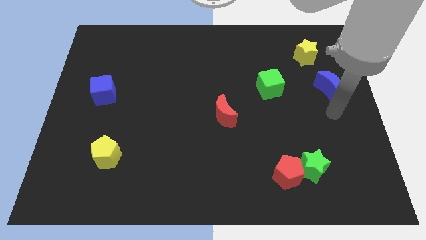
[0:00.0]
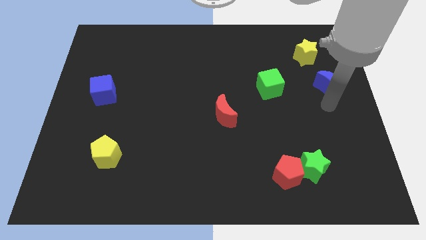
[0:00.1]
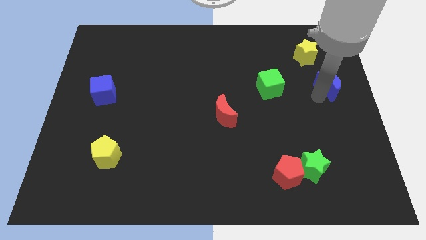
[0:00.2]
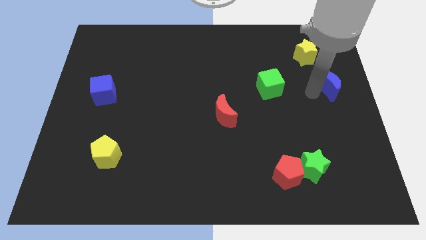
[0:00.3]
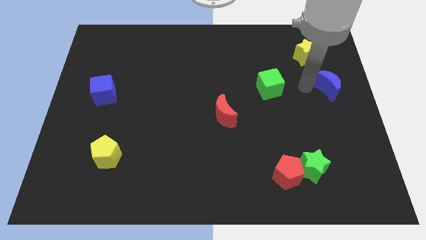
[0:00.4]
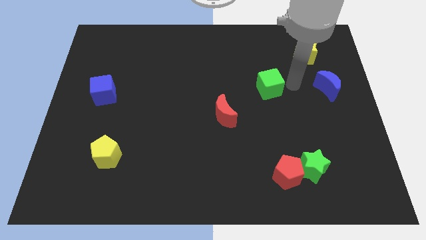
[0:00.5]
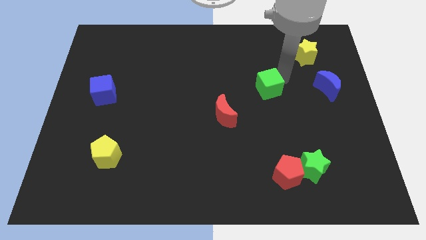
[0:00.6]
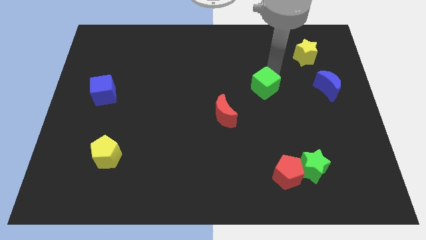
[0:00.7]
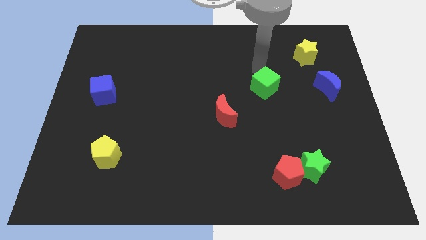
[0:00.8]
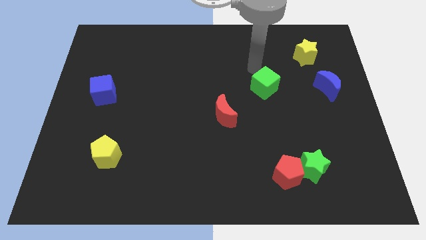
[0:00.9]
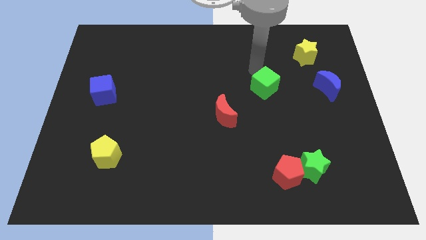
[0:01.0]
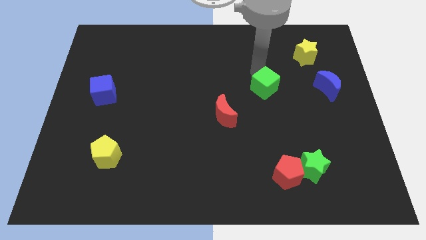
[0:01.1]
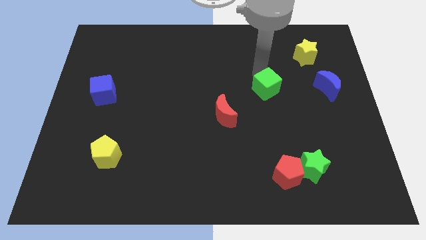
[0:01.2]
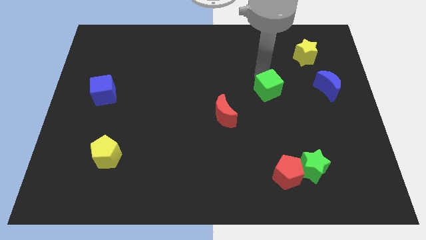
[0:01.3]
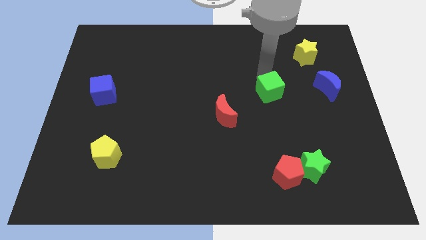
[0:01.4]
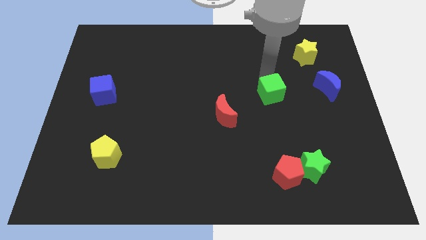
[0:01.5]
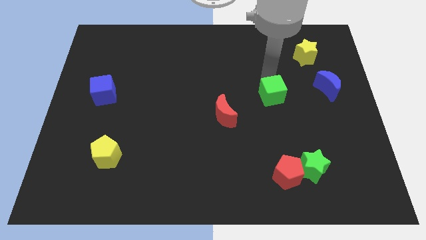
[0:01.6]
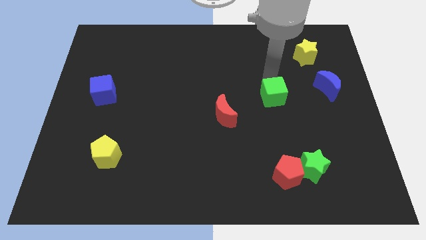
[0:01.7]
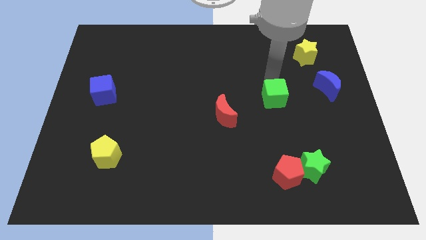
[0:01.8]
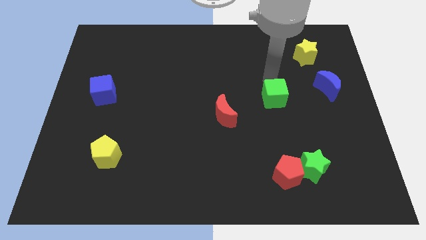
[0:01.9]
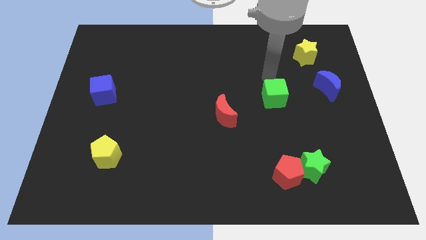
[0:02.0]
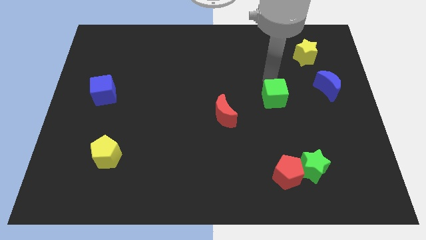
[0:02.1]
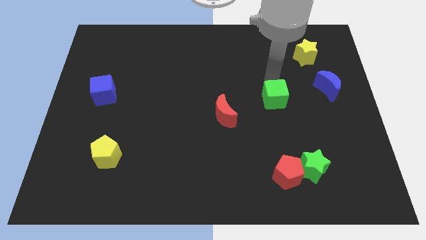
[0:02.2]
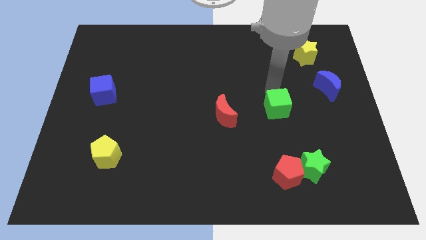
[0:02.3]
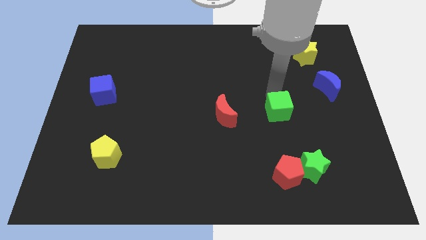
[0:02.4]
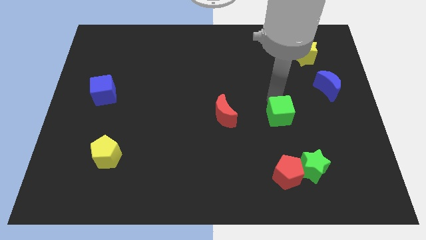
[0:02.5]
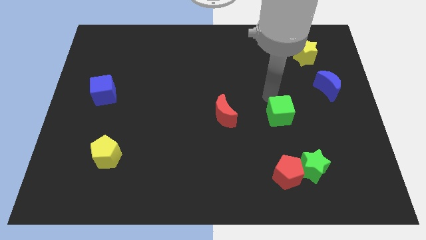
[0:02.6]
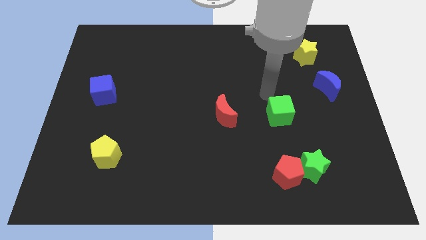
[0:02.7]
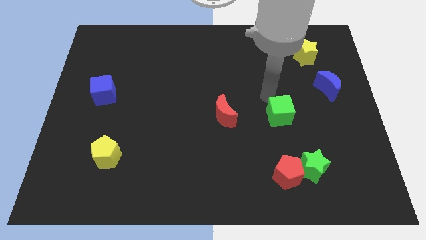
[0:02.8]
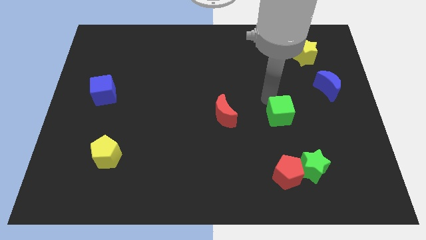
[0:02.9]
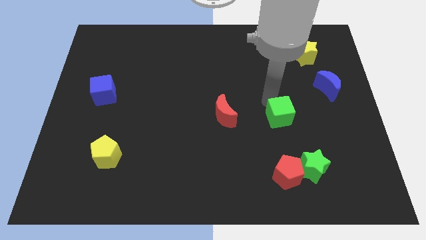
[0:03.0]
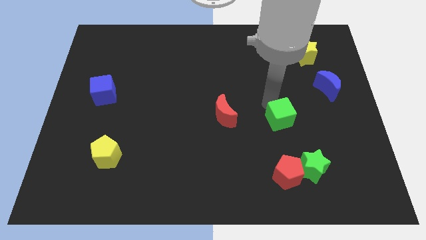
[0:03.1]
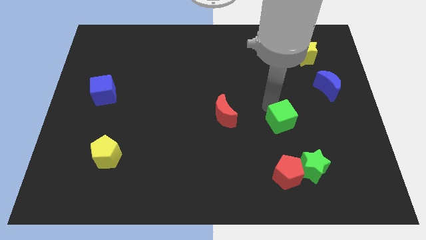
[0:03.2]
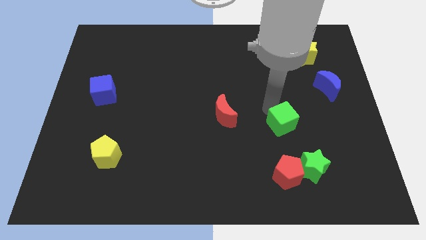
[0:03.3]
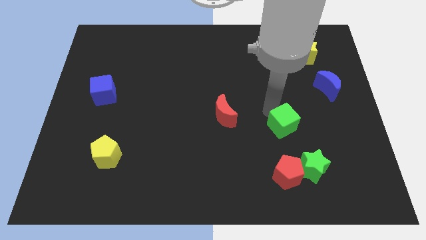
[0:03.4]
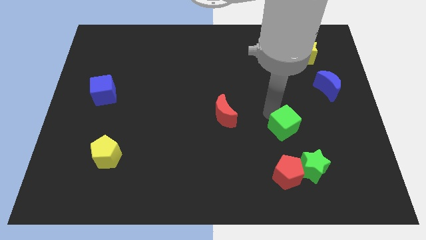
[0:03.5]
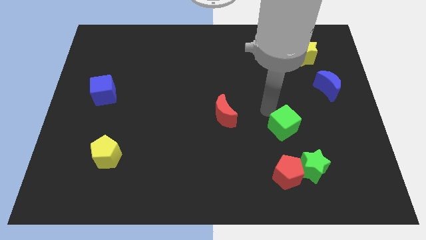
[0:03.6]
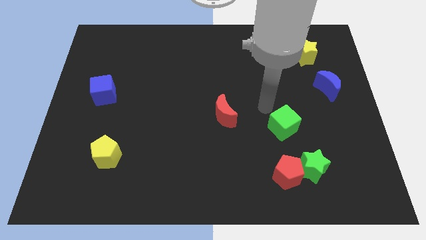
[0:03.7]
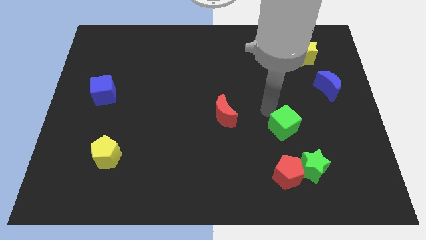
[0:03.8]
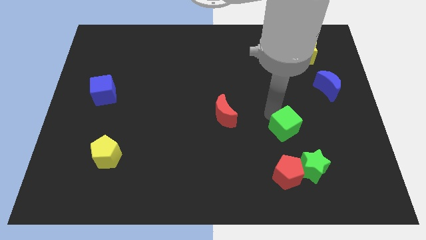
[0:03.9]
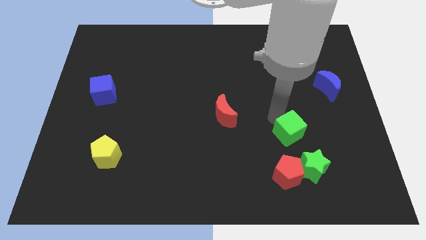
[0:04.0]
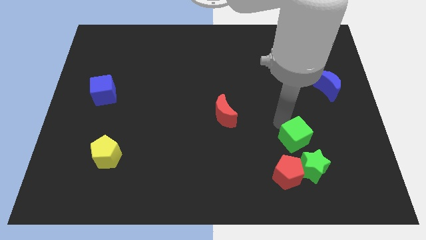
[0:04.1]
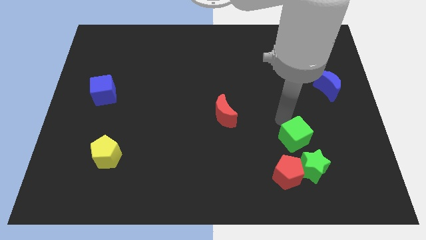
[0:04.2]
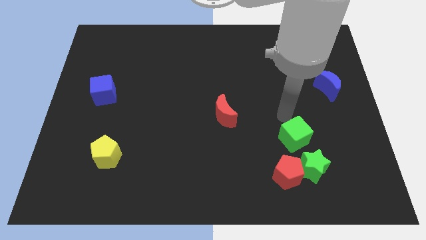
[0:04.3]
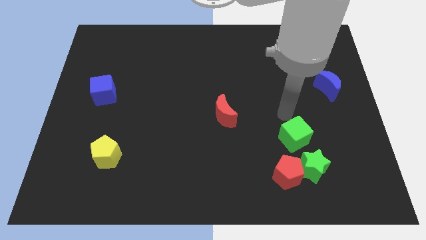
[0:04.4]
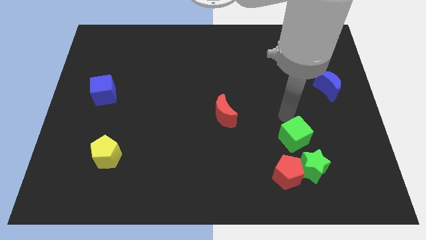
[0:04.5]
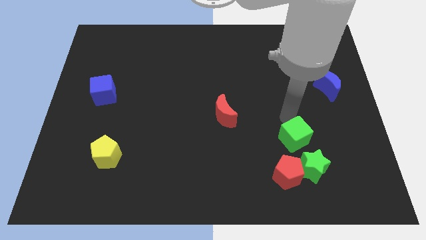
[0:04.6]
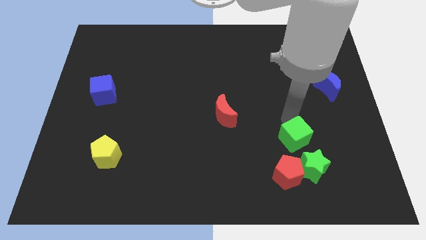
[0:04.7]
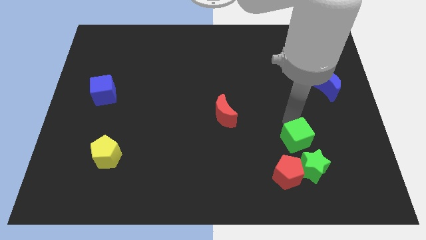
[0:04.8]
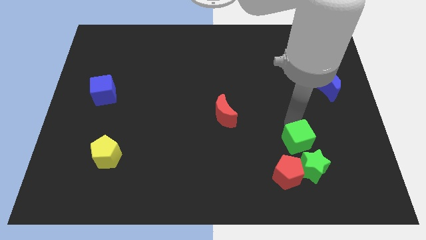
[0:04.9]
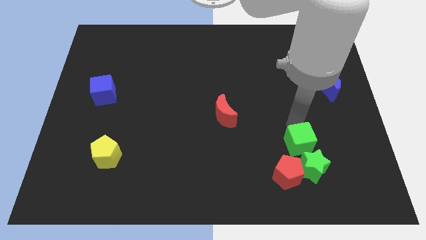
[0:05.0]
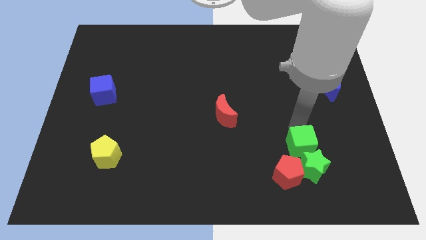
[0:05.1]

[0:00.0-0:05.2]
push the green cube close to the green star

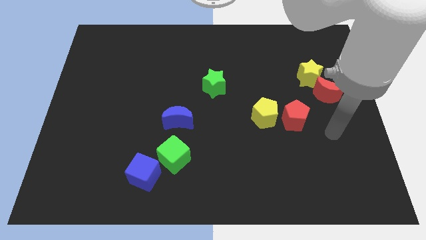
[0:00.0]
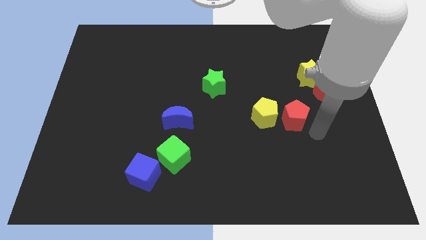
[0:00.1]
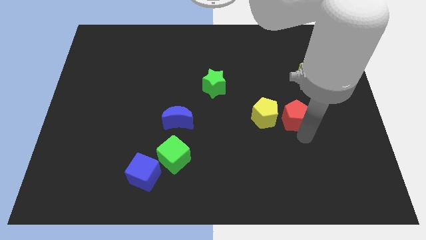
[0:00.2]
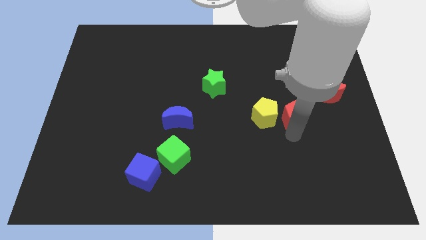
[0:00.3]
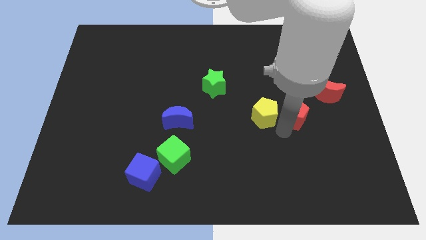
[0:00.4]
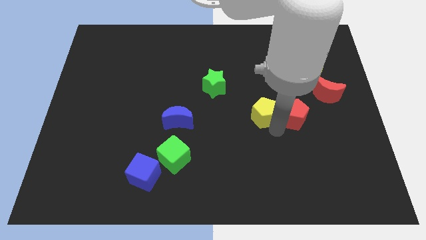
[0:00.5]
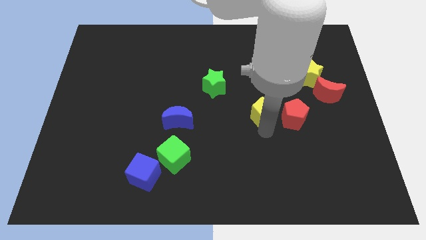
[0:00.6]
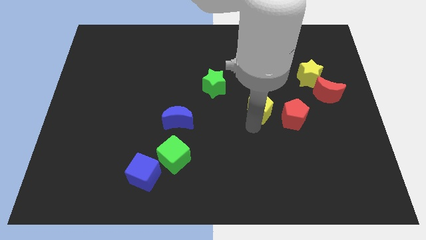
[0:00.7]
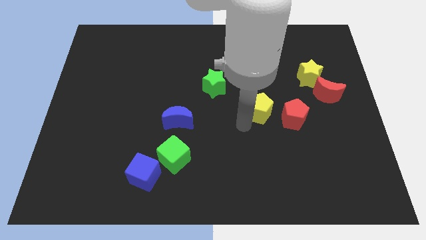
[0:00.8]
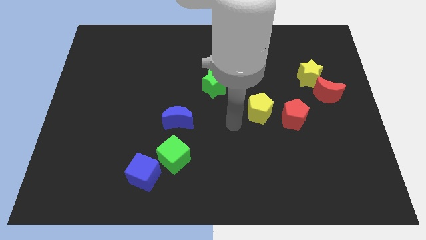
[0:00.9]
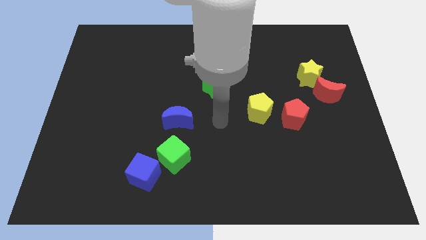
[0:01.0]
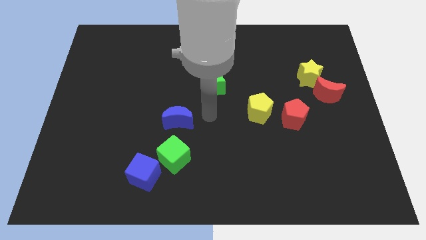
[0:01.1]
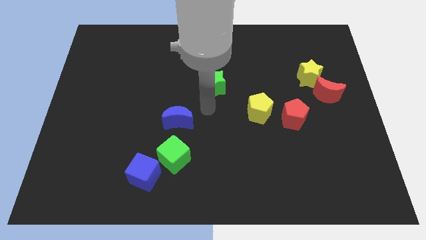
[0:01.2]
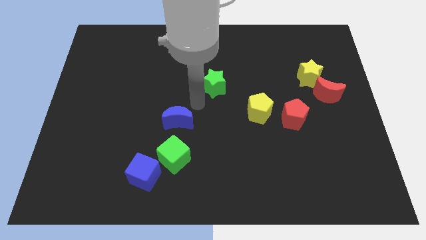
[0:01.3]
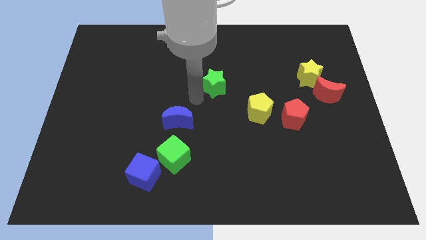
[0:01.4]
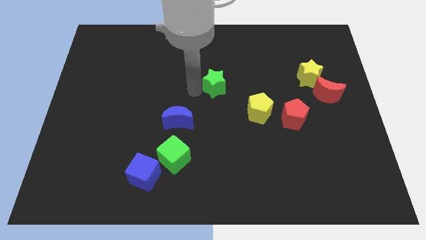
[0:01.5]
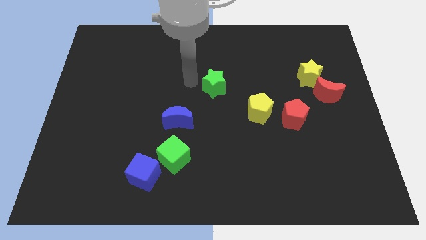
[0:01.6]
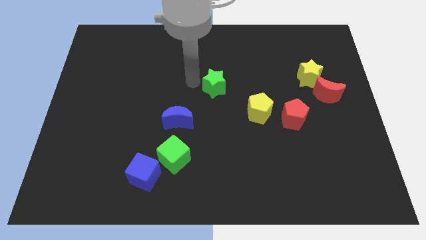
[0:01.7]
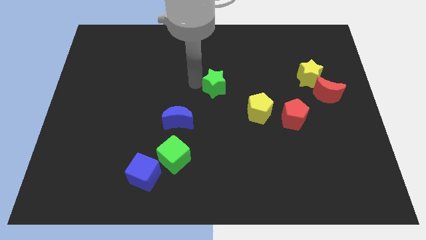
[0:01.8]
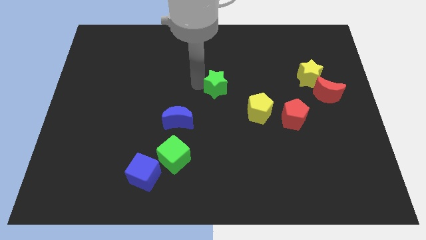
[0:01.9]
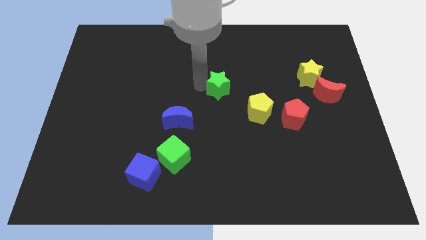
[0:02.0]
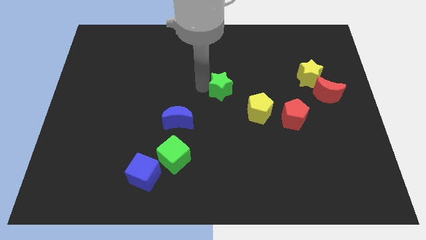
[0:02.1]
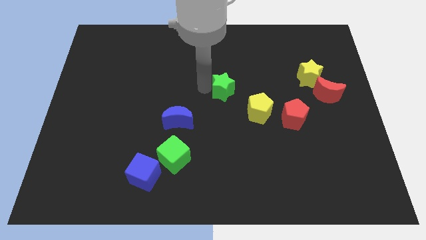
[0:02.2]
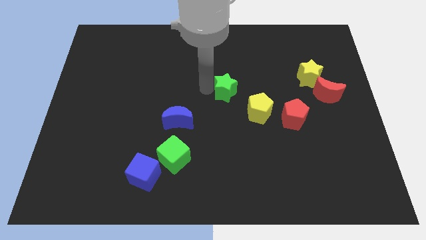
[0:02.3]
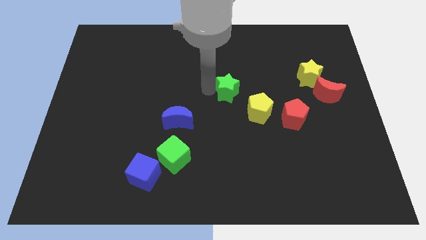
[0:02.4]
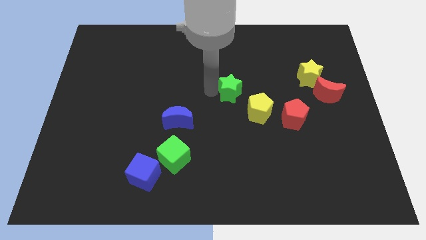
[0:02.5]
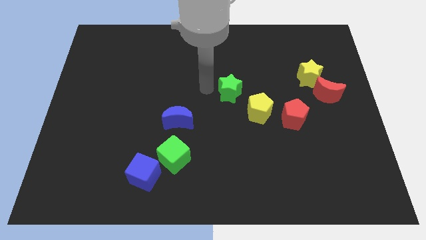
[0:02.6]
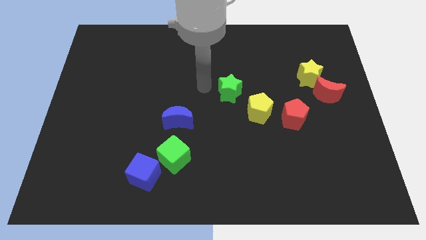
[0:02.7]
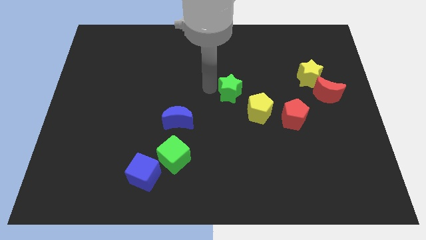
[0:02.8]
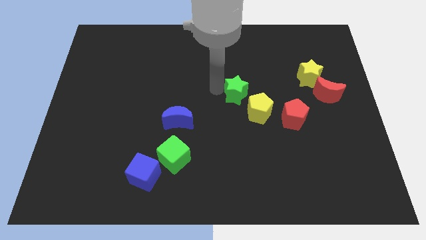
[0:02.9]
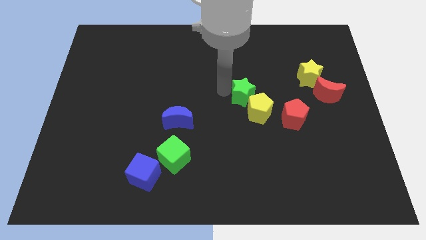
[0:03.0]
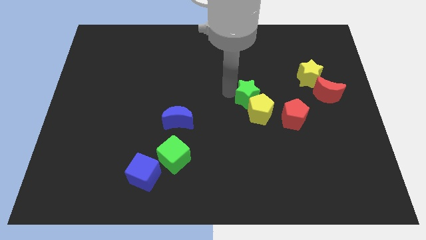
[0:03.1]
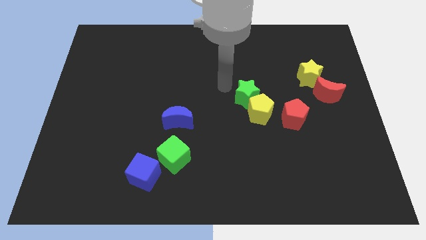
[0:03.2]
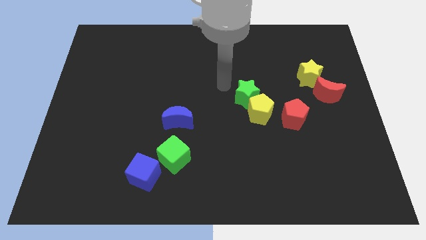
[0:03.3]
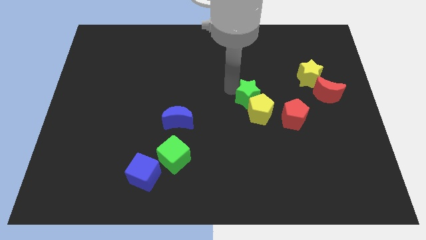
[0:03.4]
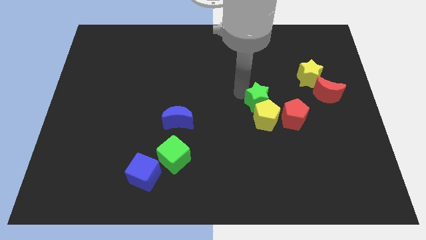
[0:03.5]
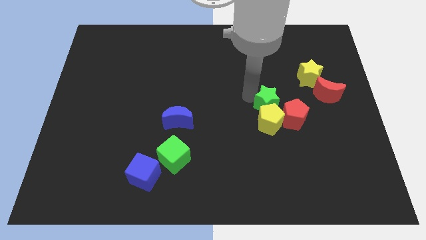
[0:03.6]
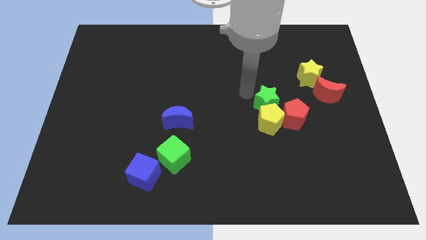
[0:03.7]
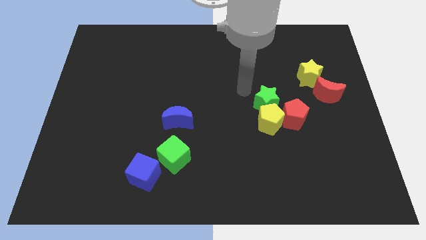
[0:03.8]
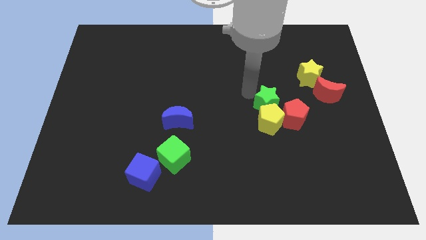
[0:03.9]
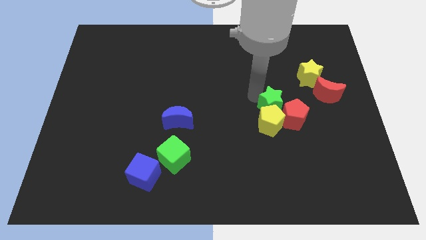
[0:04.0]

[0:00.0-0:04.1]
slide the green star close to the red pentagon
